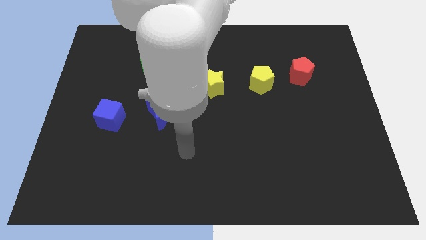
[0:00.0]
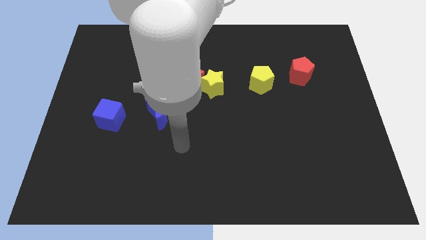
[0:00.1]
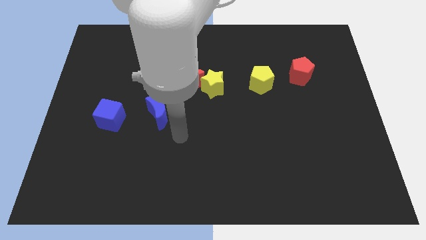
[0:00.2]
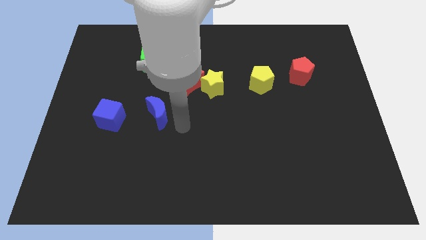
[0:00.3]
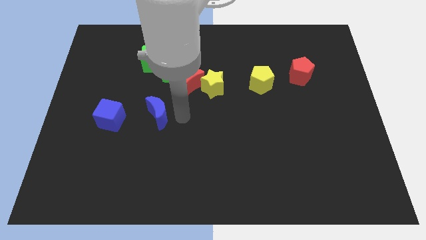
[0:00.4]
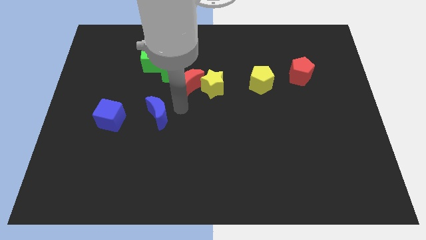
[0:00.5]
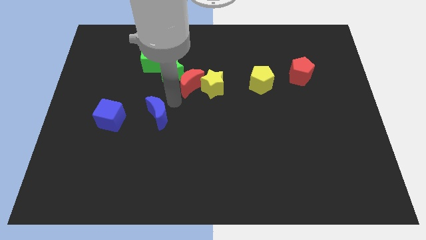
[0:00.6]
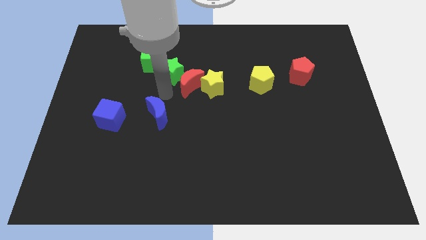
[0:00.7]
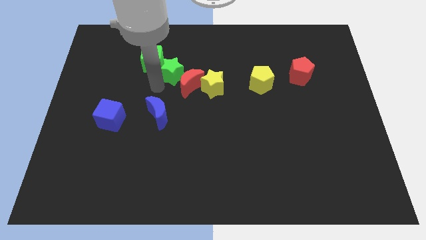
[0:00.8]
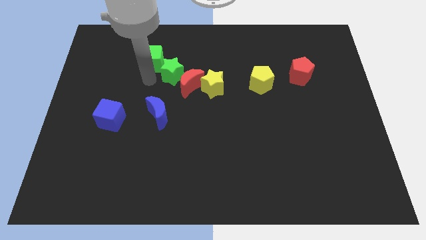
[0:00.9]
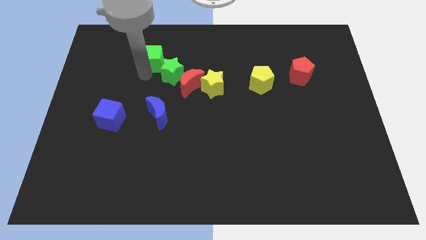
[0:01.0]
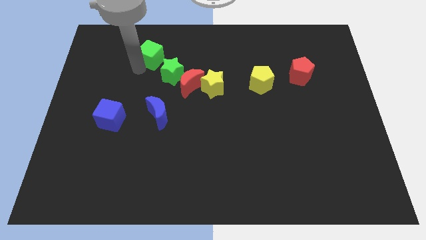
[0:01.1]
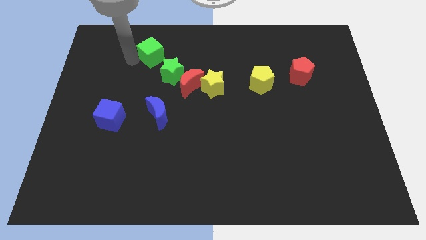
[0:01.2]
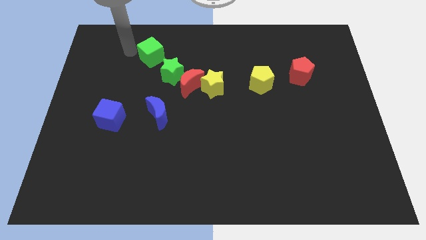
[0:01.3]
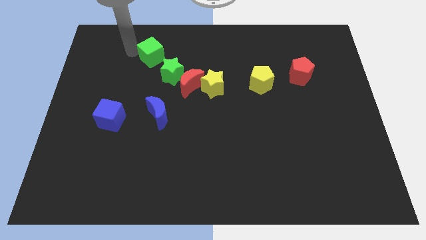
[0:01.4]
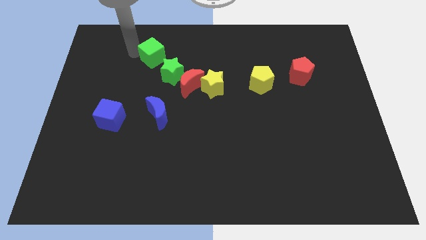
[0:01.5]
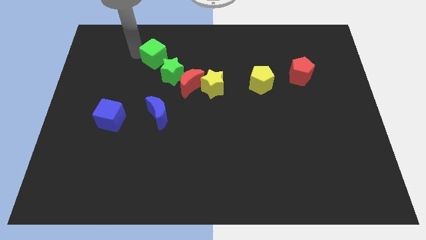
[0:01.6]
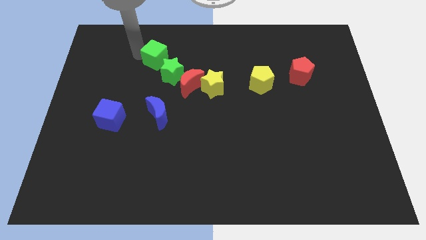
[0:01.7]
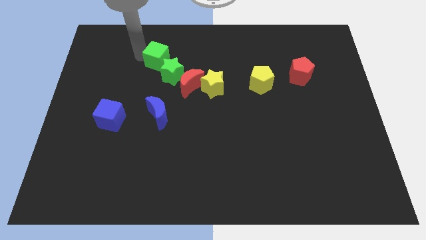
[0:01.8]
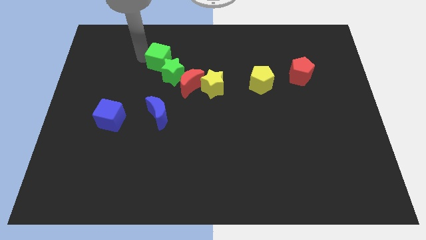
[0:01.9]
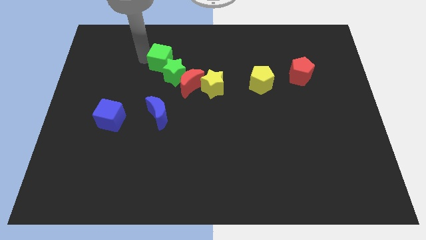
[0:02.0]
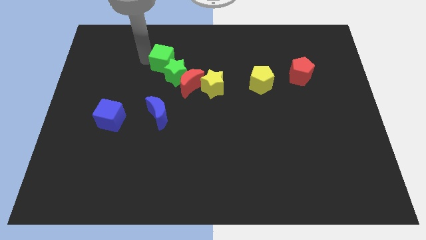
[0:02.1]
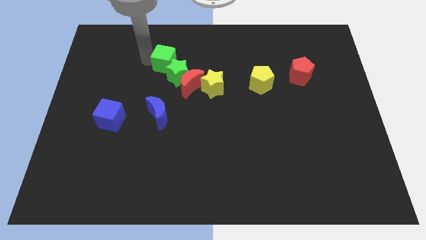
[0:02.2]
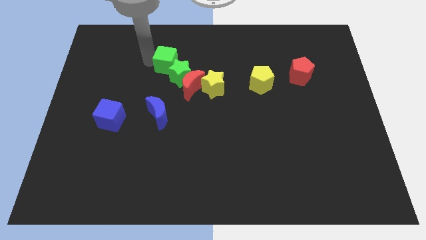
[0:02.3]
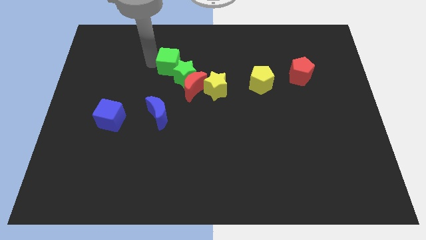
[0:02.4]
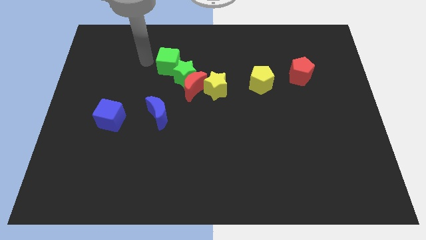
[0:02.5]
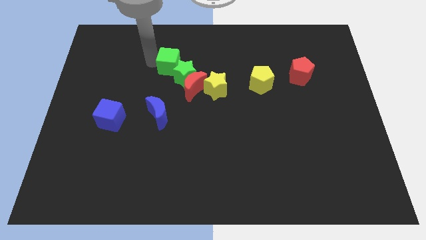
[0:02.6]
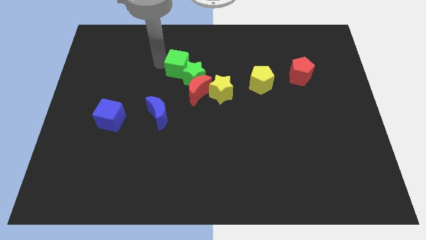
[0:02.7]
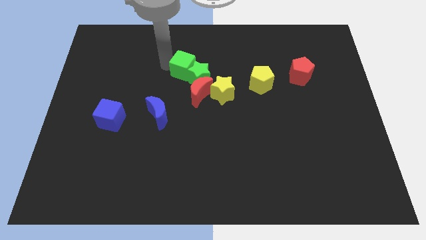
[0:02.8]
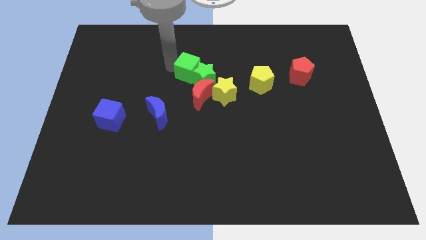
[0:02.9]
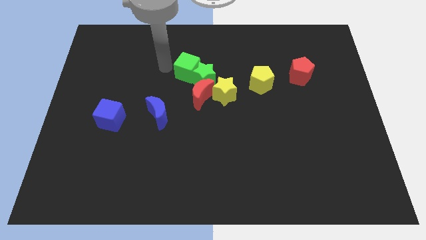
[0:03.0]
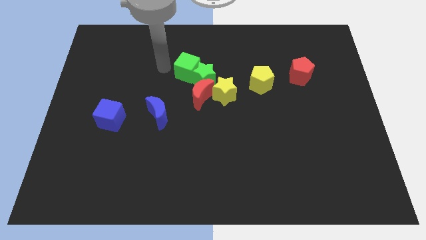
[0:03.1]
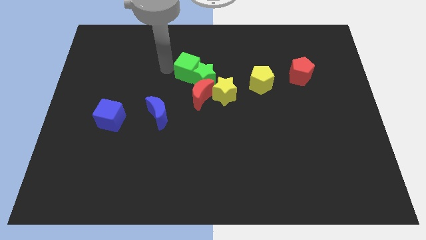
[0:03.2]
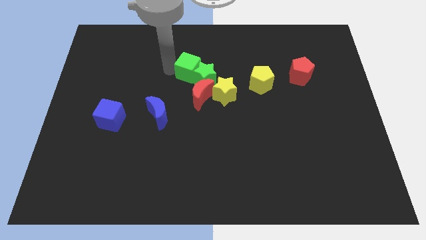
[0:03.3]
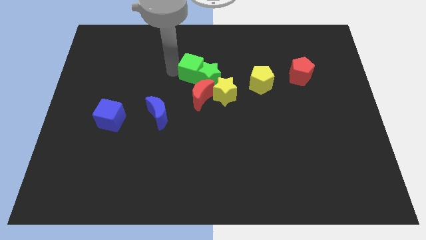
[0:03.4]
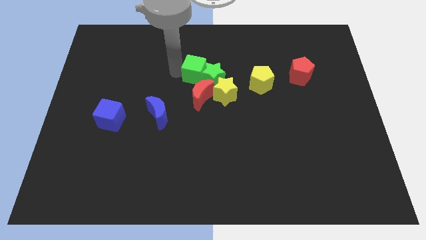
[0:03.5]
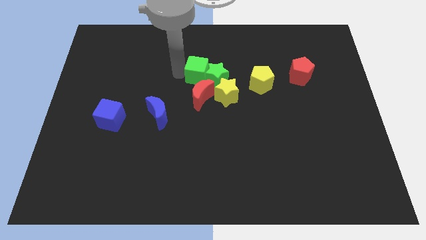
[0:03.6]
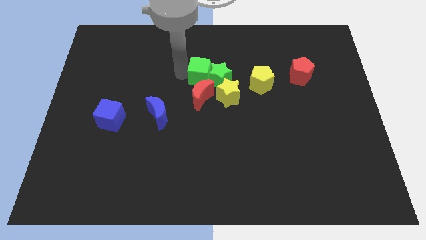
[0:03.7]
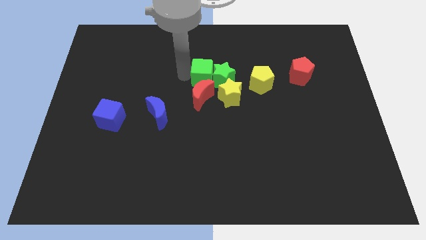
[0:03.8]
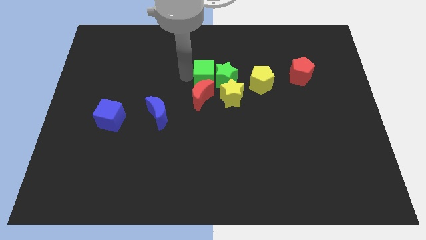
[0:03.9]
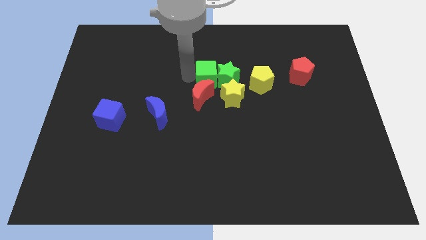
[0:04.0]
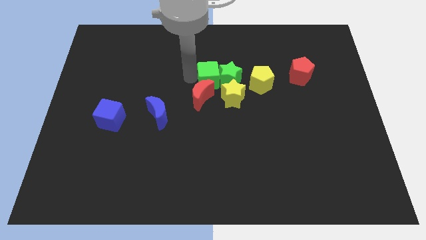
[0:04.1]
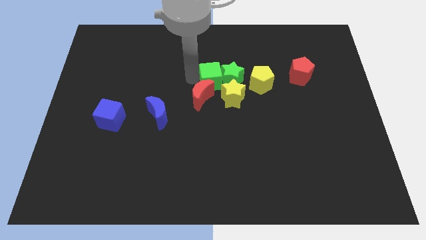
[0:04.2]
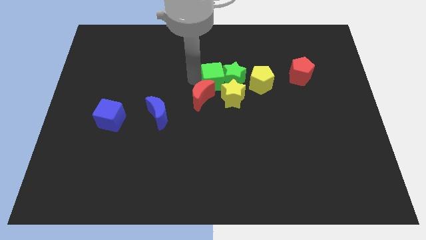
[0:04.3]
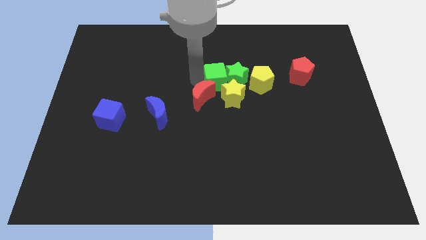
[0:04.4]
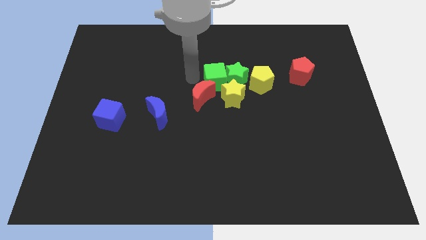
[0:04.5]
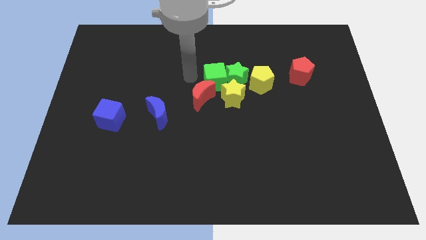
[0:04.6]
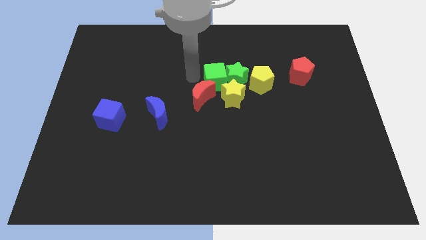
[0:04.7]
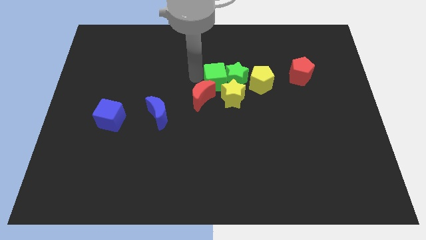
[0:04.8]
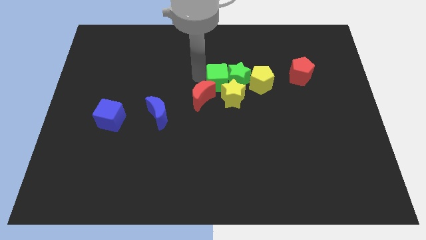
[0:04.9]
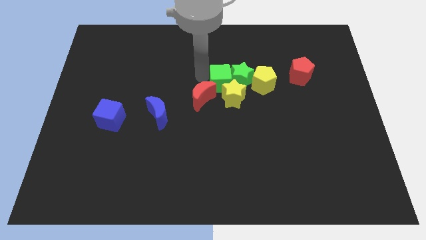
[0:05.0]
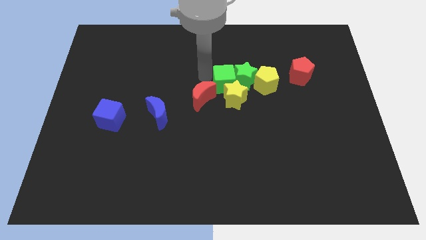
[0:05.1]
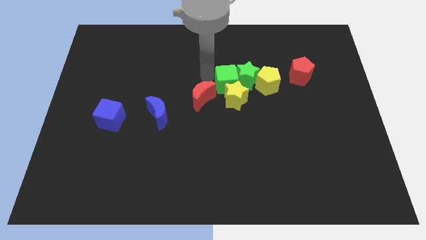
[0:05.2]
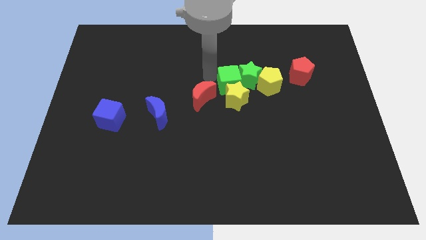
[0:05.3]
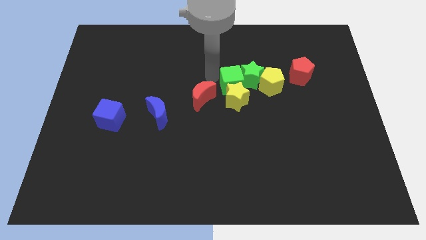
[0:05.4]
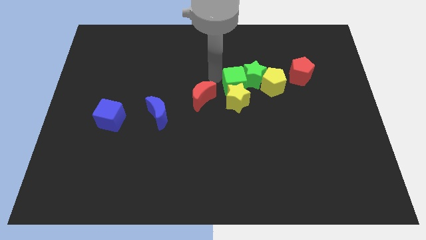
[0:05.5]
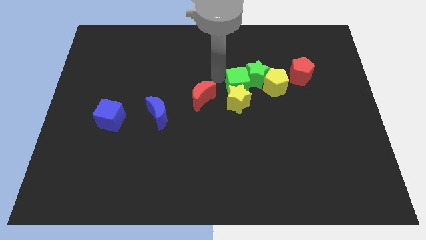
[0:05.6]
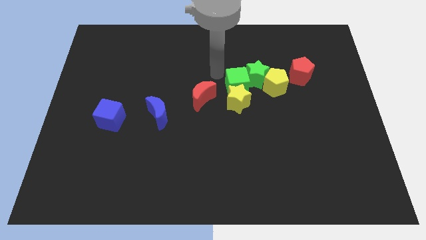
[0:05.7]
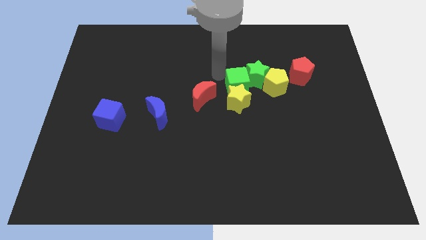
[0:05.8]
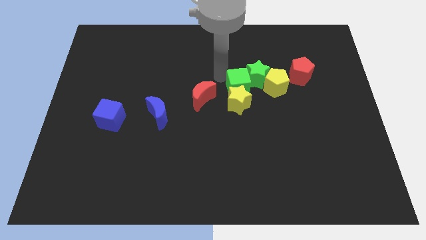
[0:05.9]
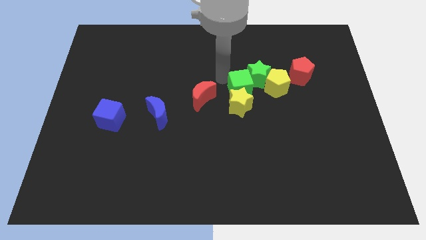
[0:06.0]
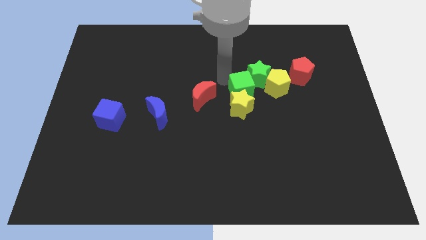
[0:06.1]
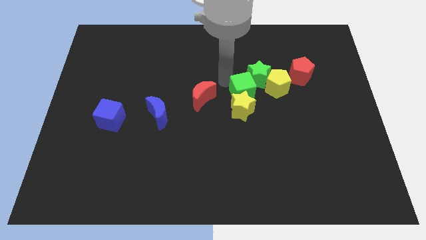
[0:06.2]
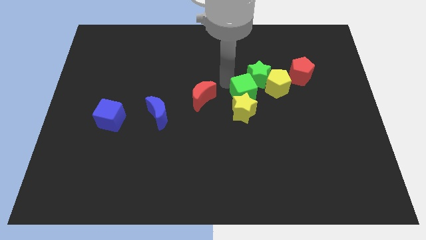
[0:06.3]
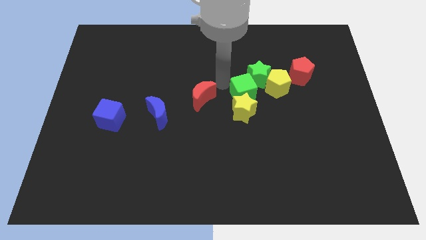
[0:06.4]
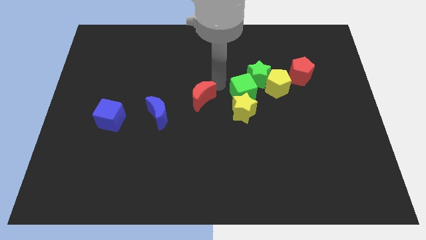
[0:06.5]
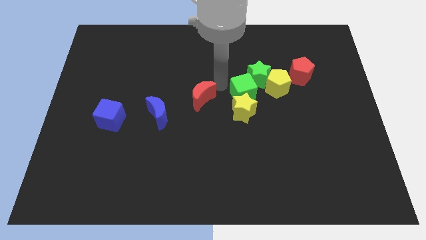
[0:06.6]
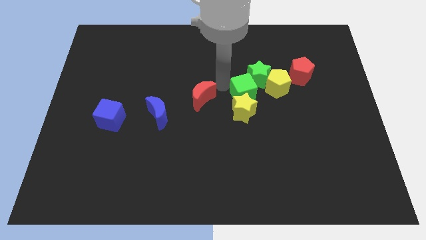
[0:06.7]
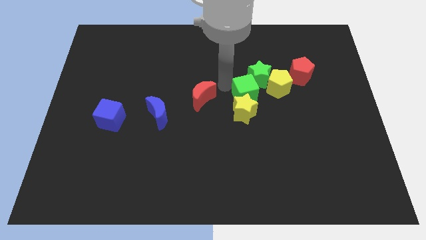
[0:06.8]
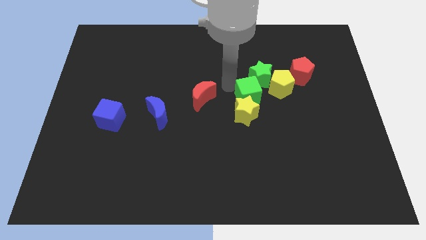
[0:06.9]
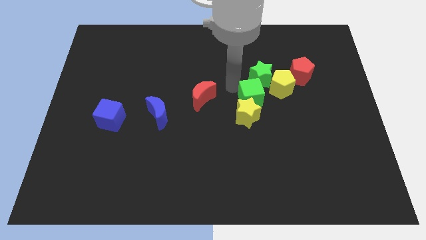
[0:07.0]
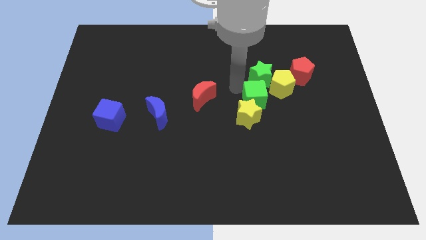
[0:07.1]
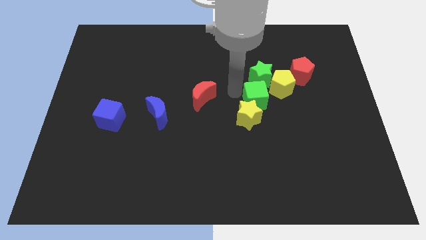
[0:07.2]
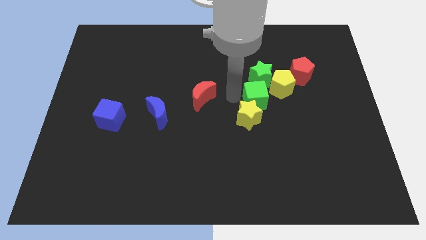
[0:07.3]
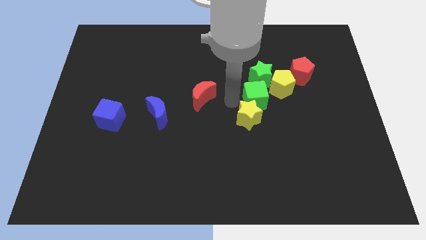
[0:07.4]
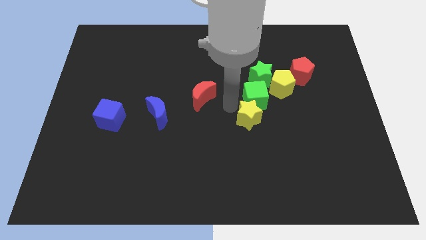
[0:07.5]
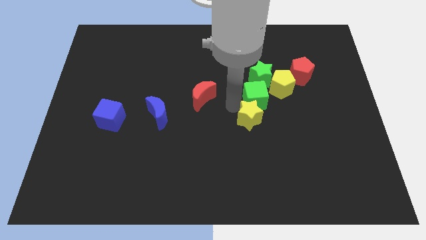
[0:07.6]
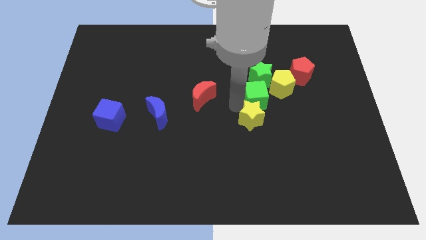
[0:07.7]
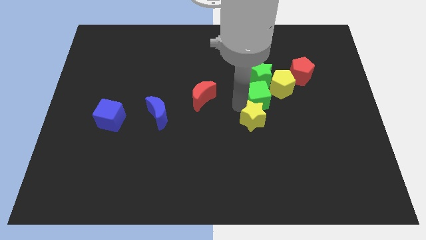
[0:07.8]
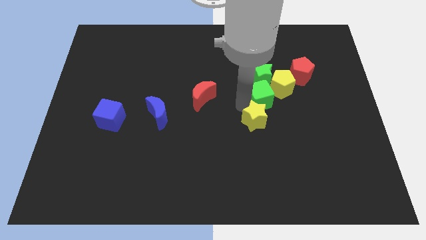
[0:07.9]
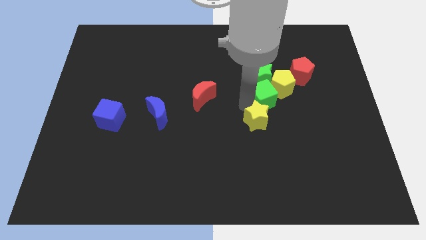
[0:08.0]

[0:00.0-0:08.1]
slide the green cube to the bottom left of the red pentagon
